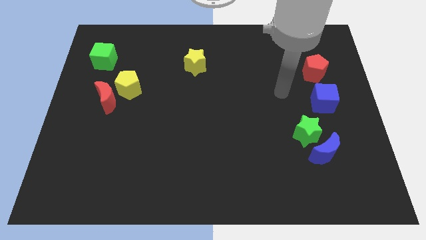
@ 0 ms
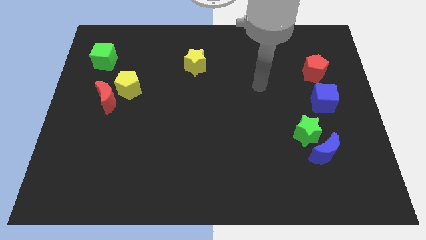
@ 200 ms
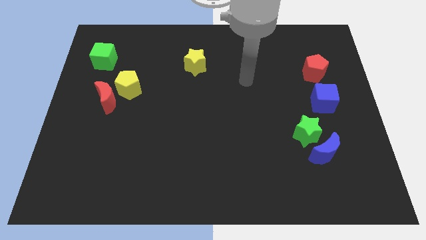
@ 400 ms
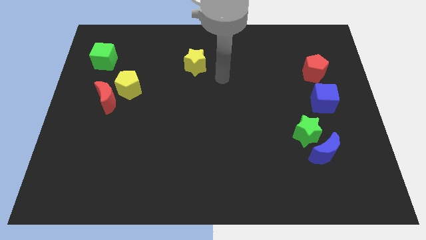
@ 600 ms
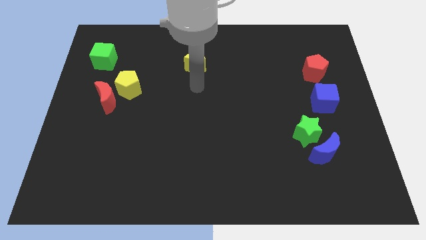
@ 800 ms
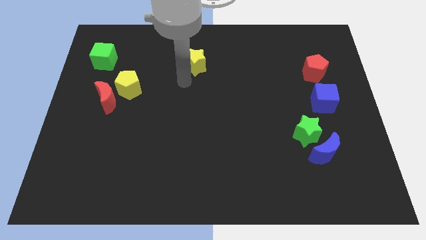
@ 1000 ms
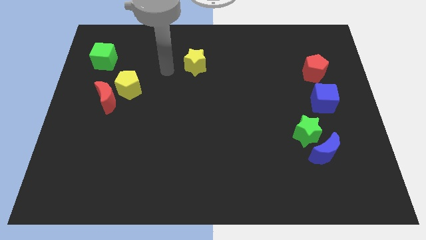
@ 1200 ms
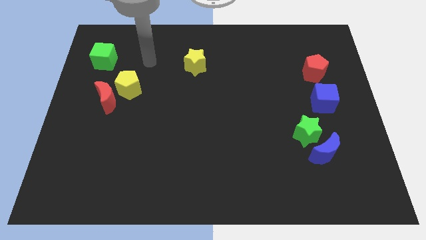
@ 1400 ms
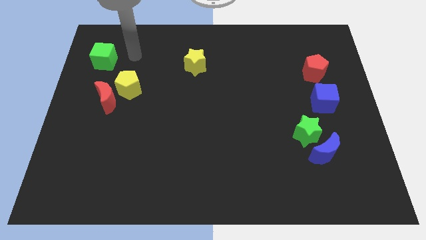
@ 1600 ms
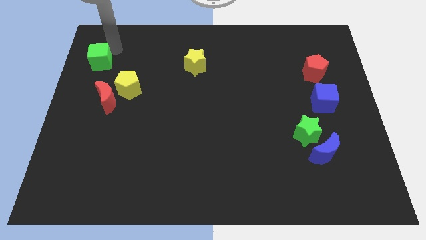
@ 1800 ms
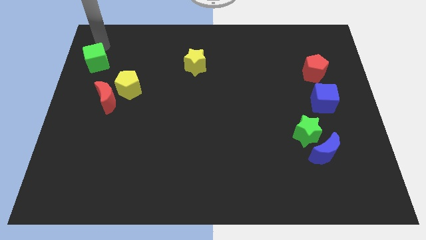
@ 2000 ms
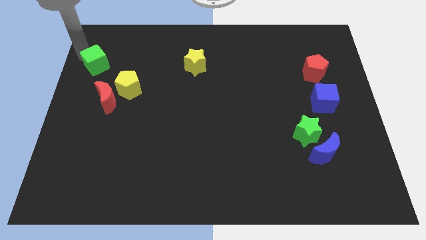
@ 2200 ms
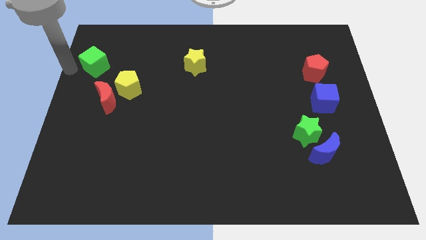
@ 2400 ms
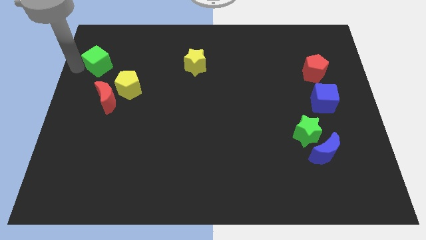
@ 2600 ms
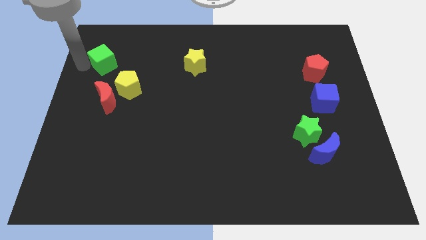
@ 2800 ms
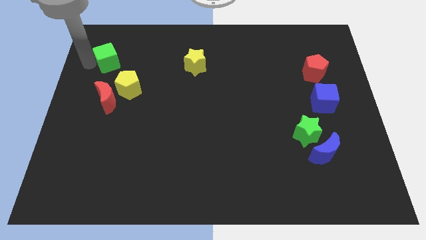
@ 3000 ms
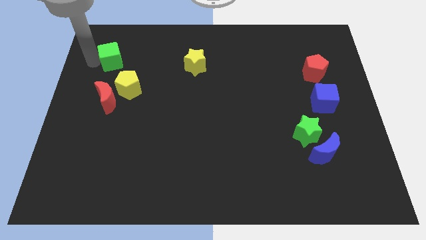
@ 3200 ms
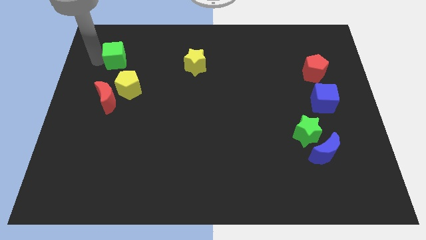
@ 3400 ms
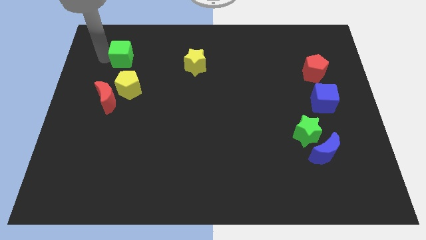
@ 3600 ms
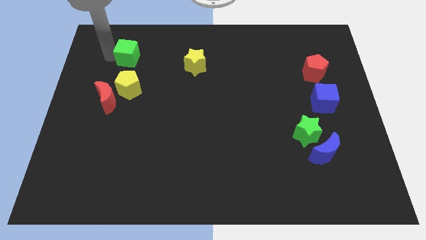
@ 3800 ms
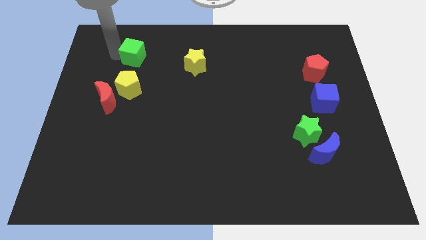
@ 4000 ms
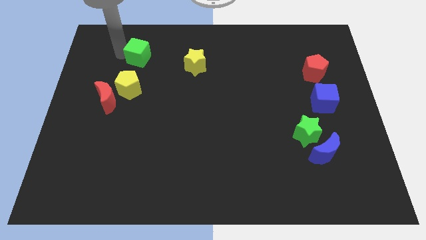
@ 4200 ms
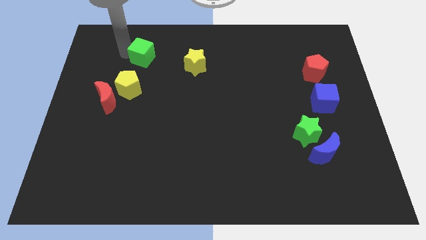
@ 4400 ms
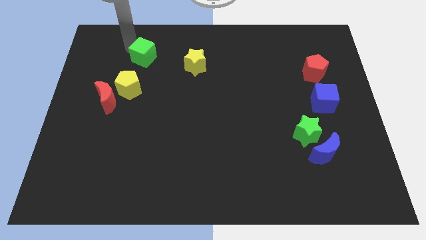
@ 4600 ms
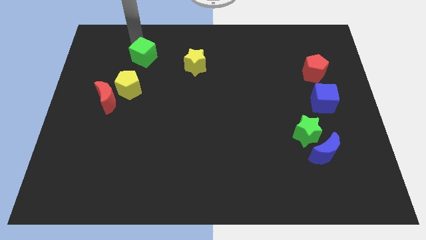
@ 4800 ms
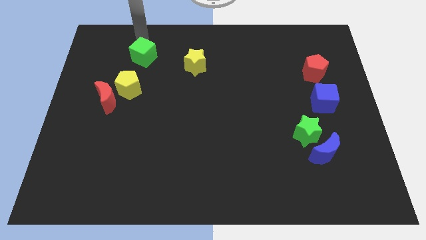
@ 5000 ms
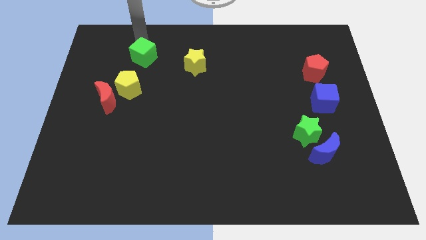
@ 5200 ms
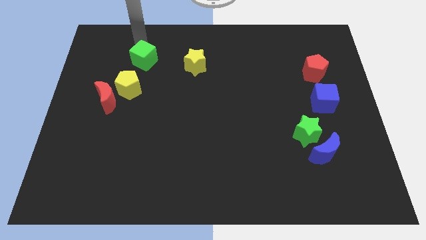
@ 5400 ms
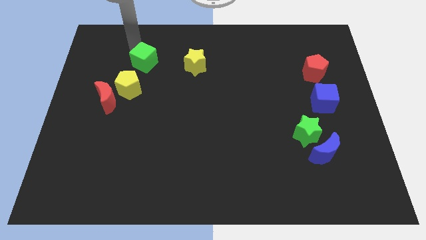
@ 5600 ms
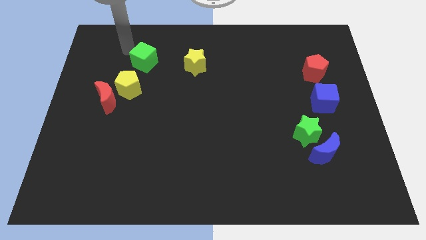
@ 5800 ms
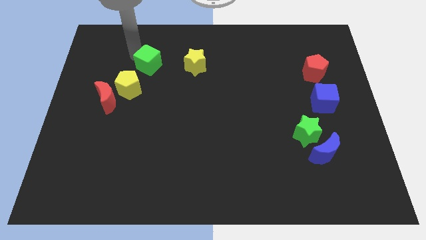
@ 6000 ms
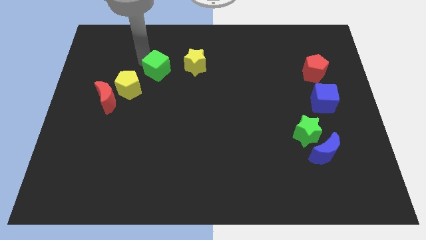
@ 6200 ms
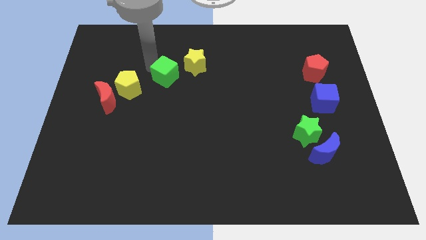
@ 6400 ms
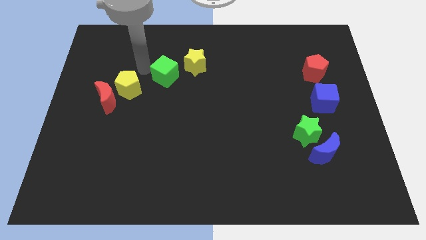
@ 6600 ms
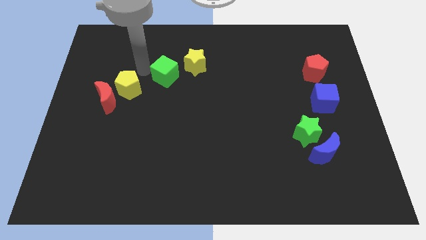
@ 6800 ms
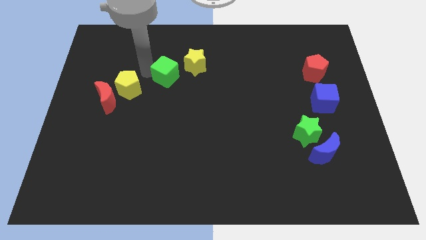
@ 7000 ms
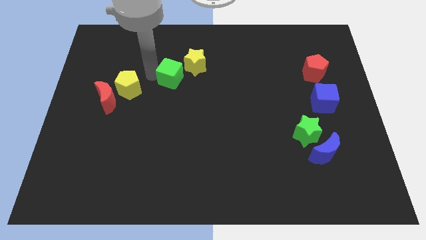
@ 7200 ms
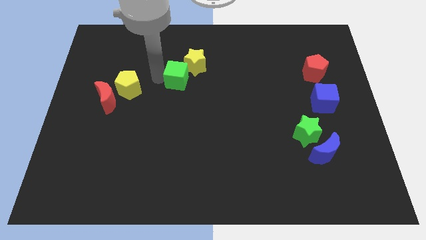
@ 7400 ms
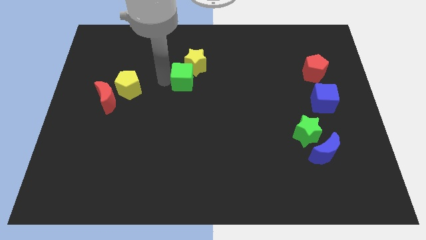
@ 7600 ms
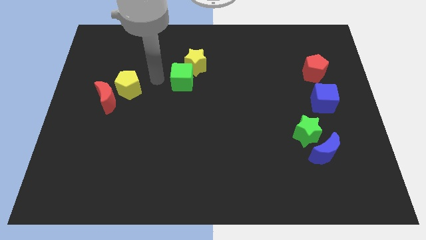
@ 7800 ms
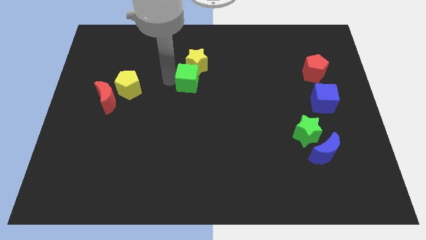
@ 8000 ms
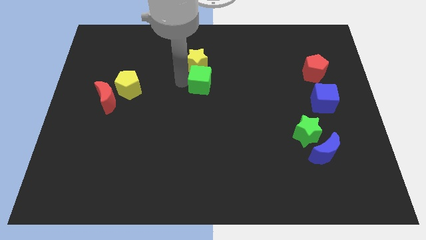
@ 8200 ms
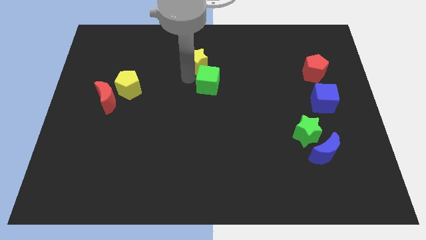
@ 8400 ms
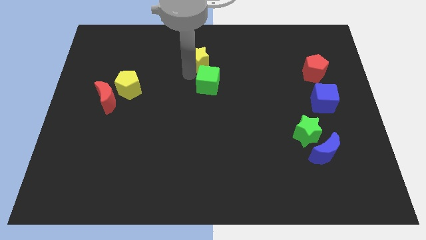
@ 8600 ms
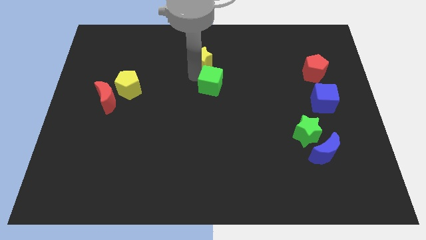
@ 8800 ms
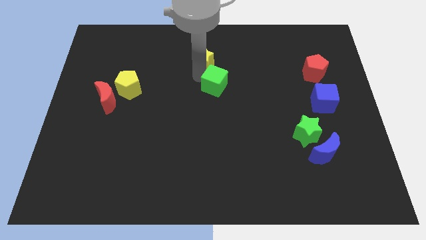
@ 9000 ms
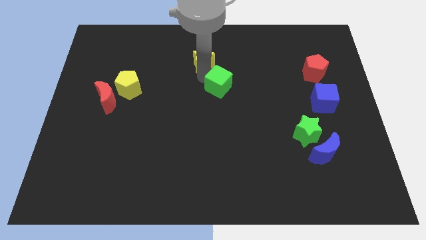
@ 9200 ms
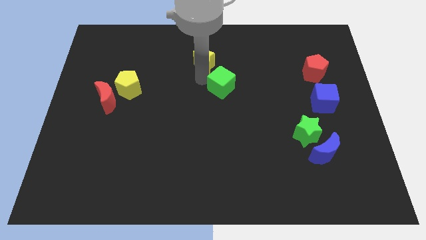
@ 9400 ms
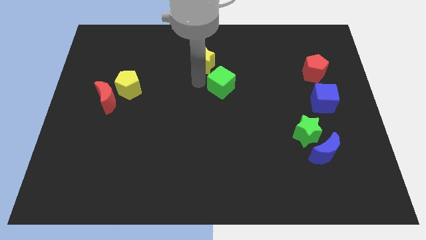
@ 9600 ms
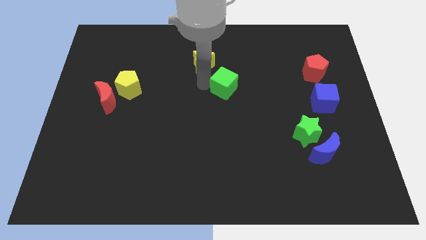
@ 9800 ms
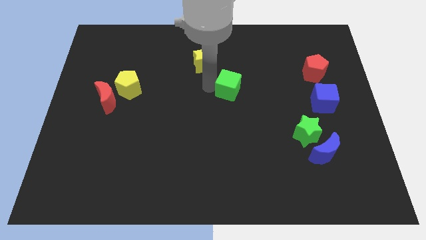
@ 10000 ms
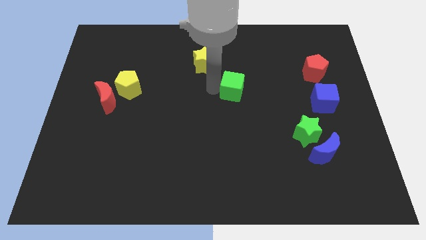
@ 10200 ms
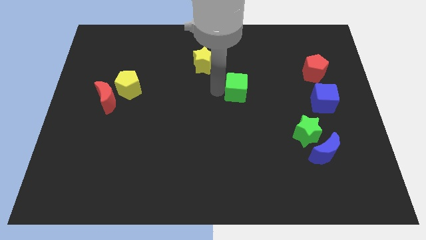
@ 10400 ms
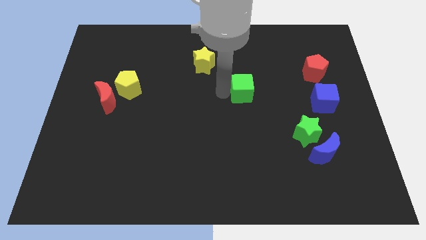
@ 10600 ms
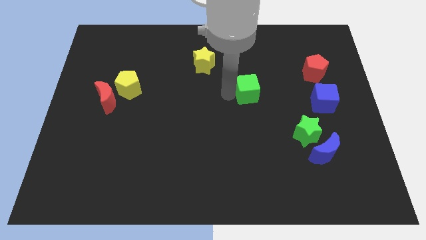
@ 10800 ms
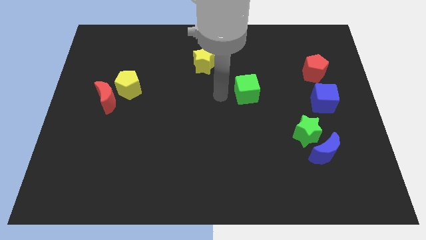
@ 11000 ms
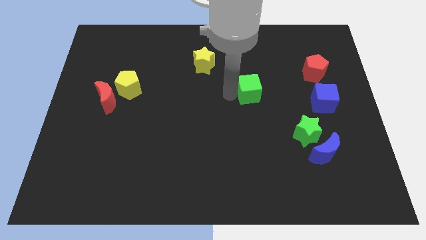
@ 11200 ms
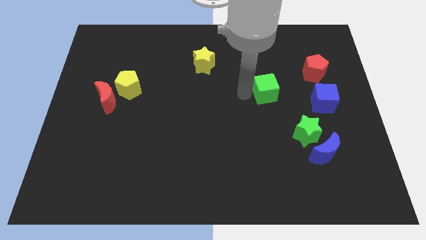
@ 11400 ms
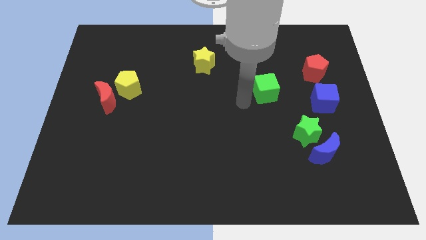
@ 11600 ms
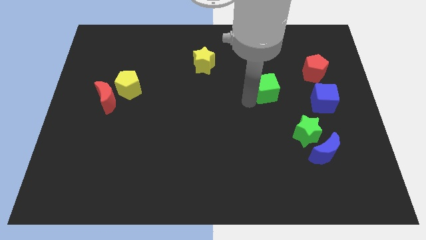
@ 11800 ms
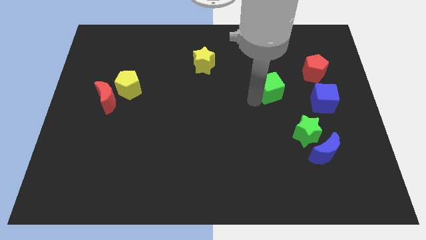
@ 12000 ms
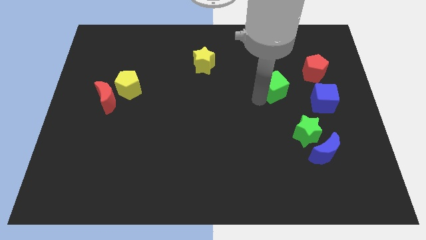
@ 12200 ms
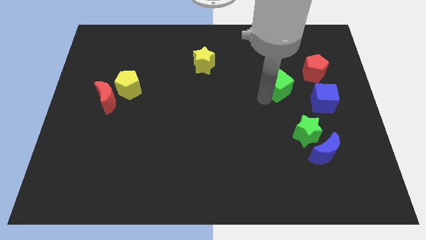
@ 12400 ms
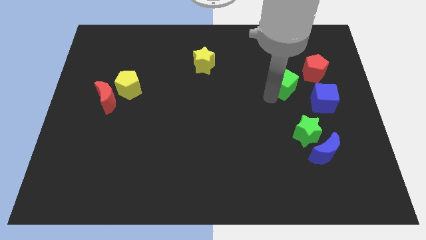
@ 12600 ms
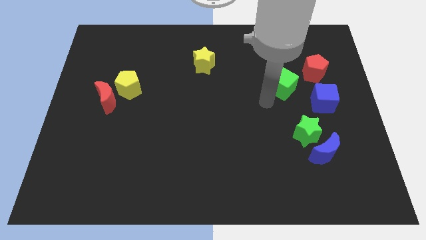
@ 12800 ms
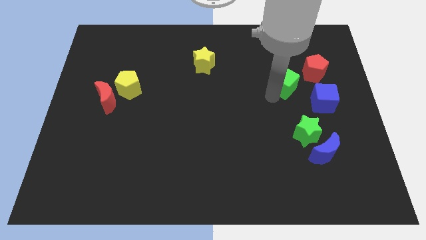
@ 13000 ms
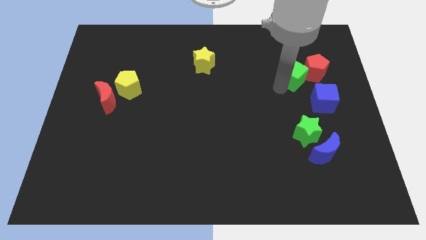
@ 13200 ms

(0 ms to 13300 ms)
move the green cube towards the red pentagon
